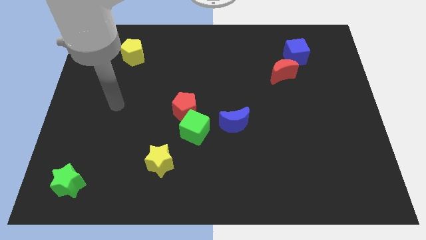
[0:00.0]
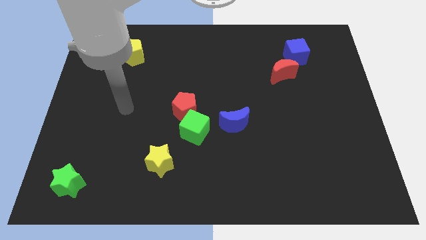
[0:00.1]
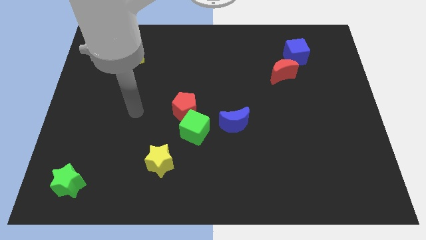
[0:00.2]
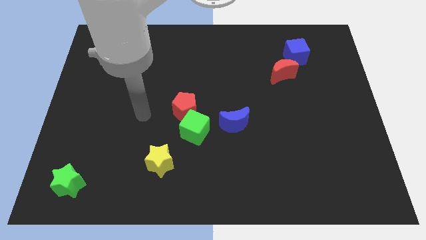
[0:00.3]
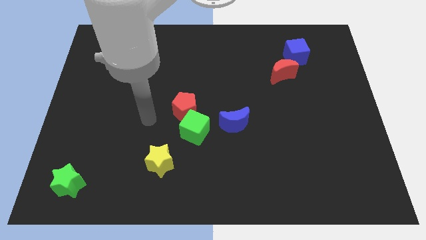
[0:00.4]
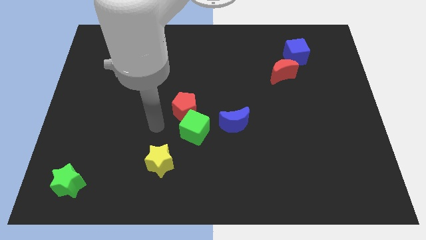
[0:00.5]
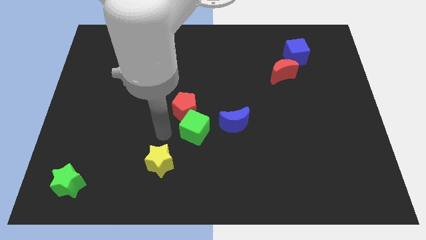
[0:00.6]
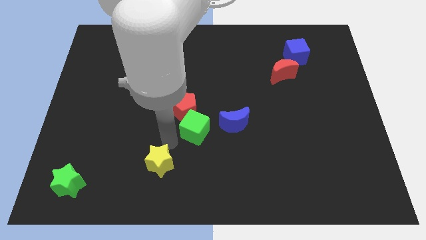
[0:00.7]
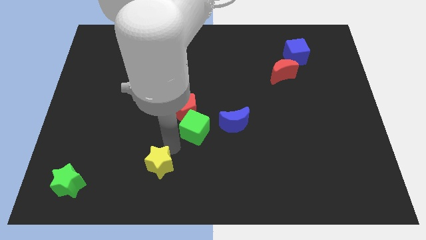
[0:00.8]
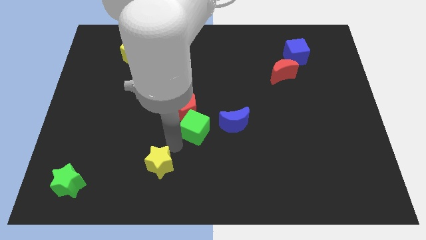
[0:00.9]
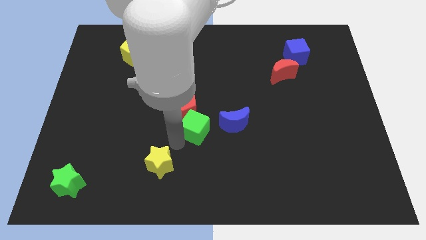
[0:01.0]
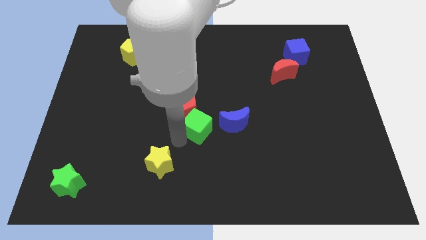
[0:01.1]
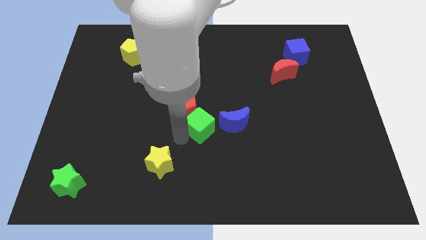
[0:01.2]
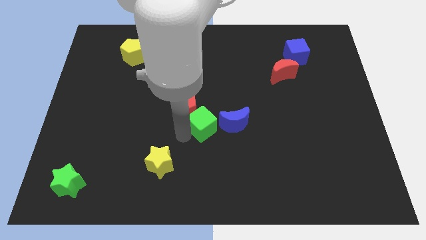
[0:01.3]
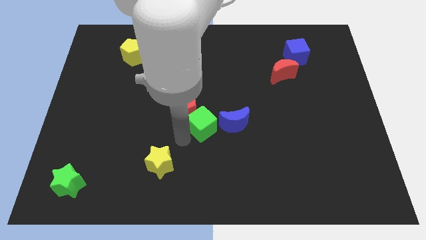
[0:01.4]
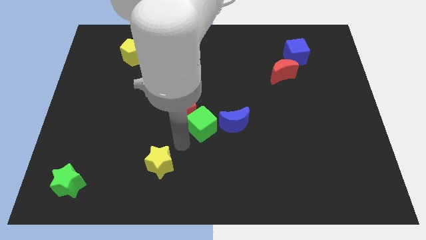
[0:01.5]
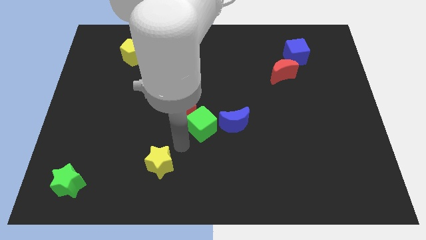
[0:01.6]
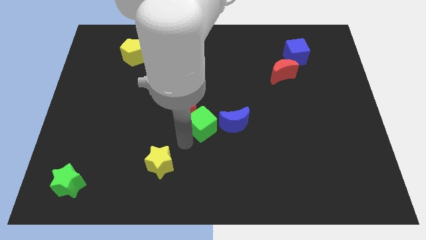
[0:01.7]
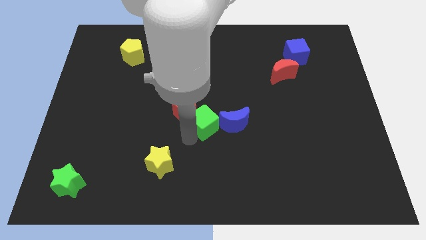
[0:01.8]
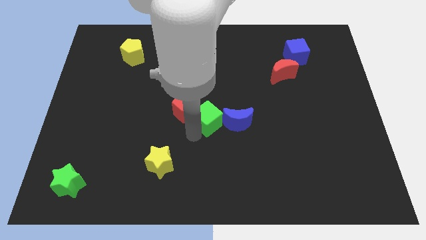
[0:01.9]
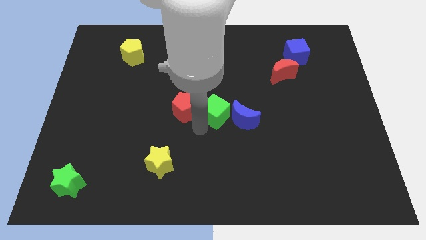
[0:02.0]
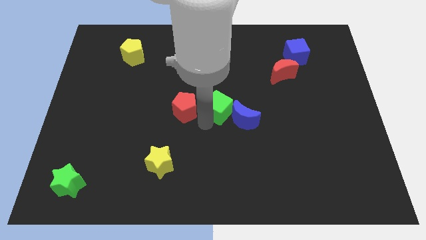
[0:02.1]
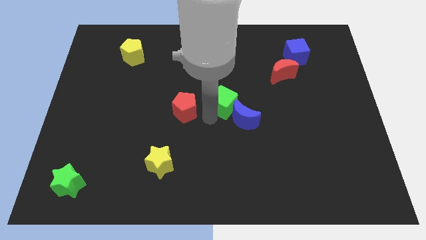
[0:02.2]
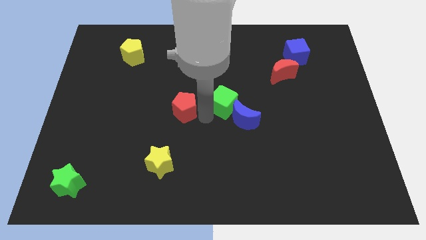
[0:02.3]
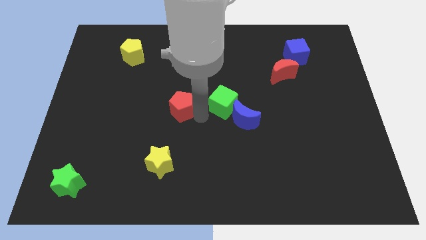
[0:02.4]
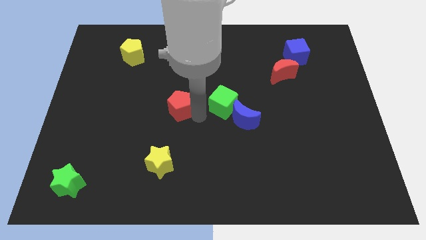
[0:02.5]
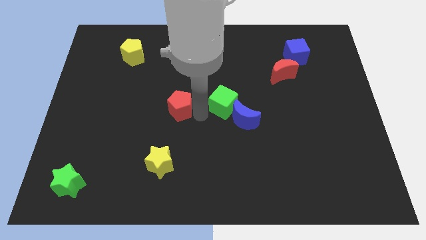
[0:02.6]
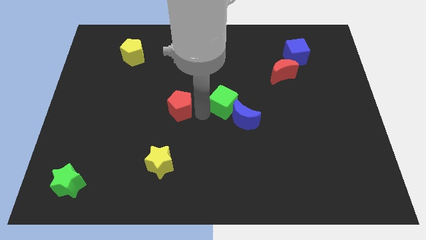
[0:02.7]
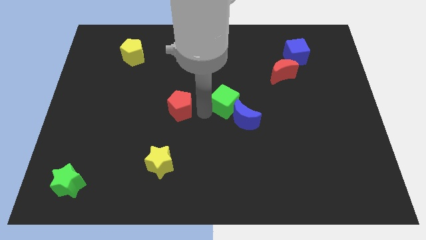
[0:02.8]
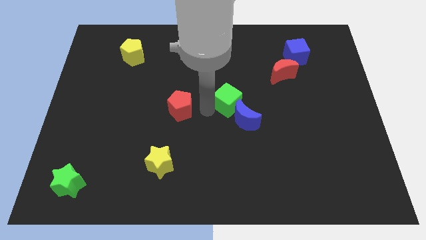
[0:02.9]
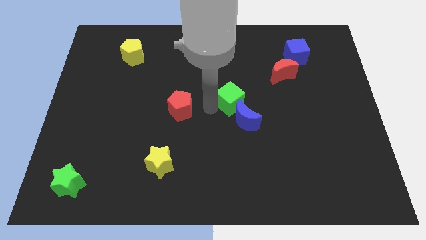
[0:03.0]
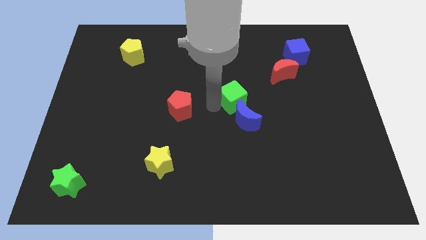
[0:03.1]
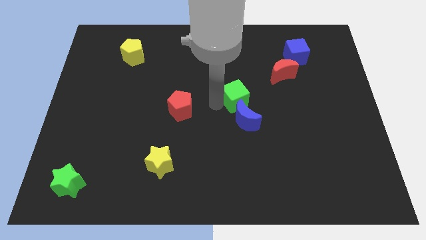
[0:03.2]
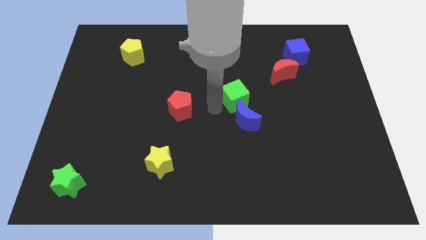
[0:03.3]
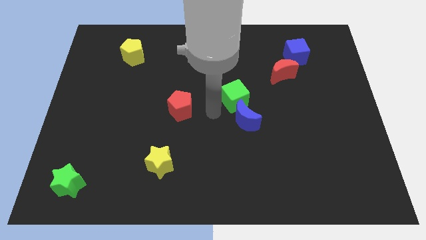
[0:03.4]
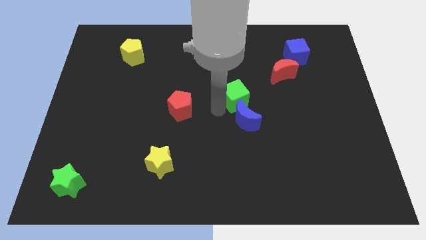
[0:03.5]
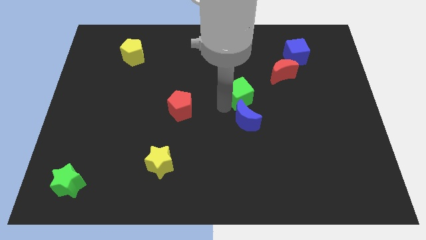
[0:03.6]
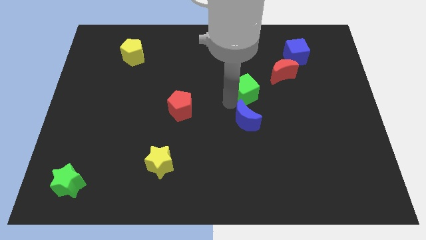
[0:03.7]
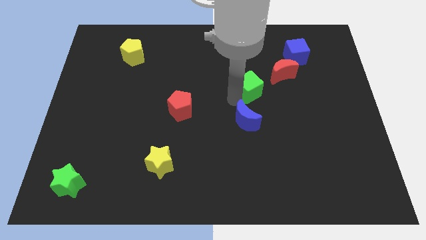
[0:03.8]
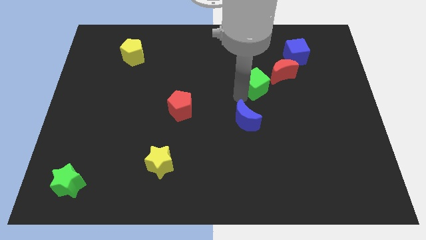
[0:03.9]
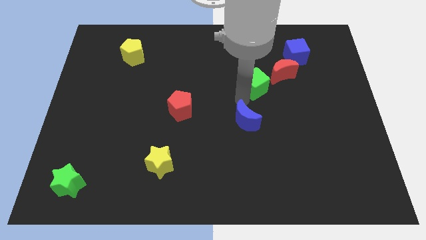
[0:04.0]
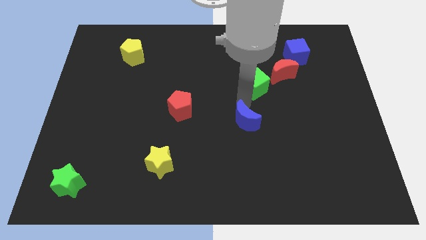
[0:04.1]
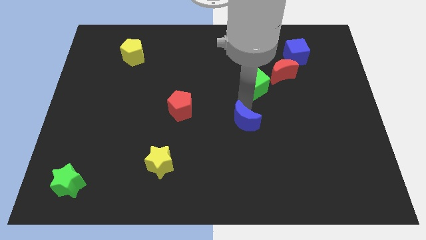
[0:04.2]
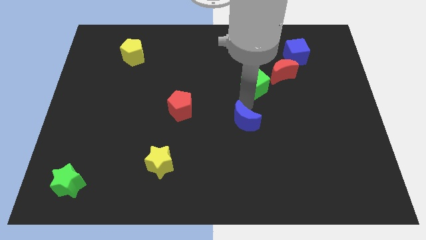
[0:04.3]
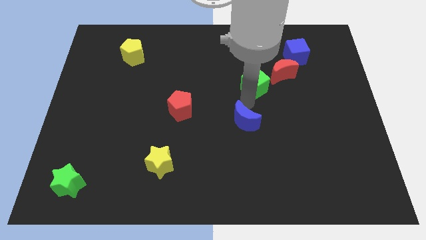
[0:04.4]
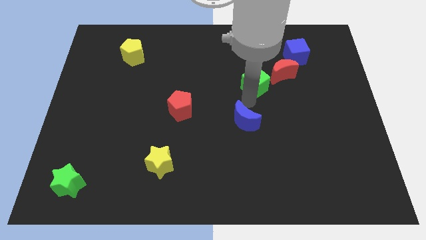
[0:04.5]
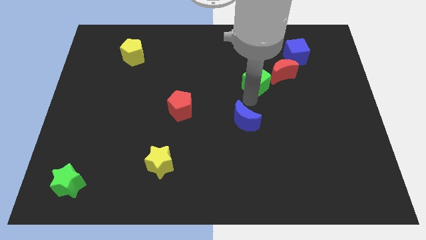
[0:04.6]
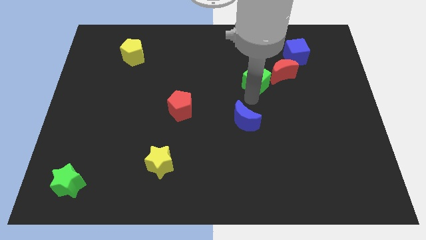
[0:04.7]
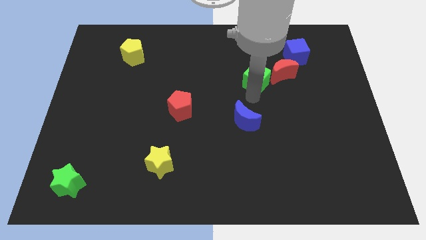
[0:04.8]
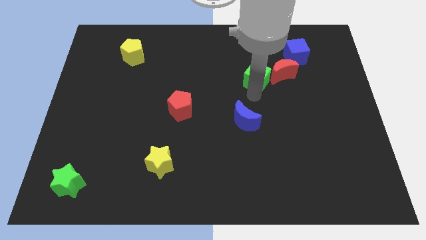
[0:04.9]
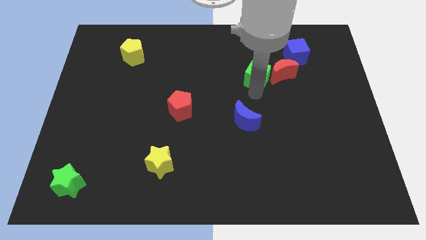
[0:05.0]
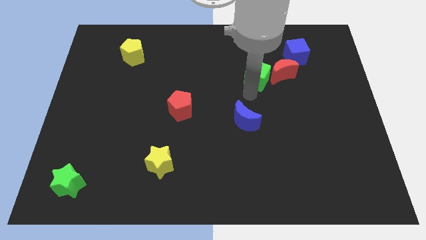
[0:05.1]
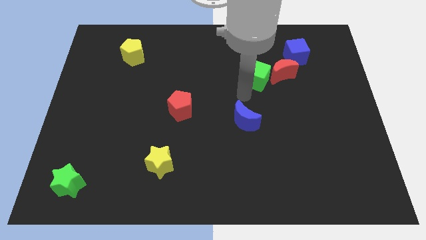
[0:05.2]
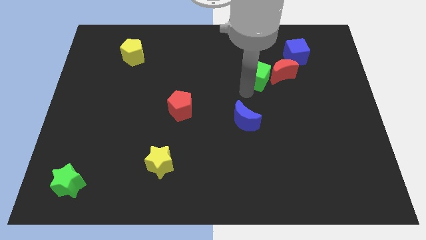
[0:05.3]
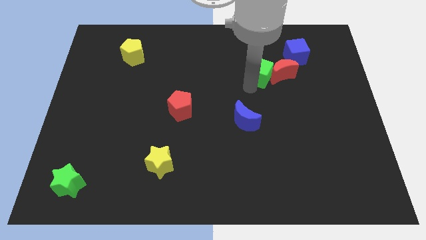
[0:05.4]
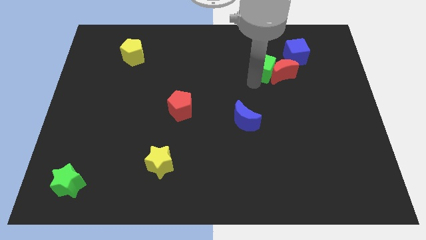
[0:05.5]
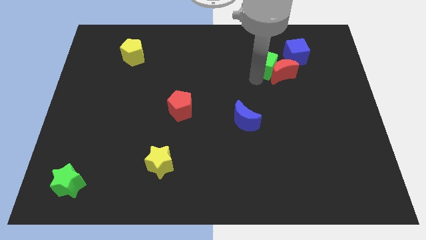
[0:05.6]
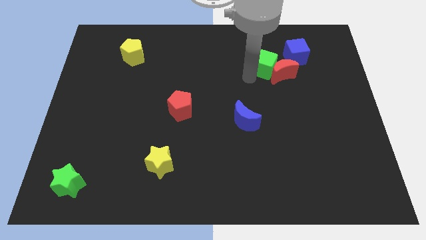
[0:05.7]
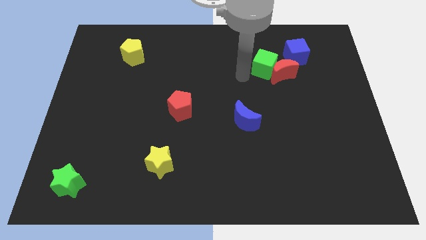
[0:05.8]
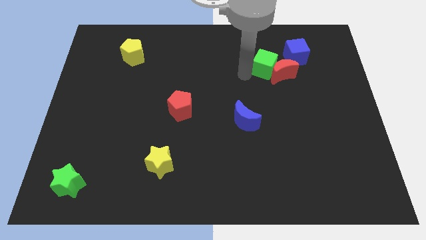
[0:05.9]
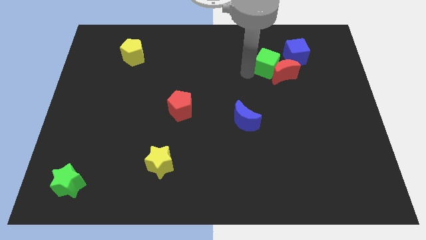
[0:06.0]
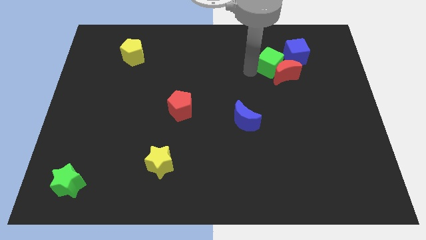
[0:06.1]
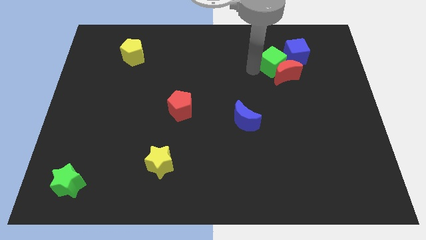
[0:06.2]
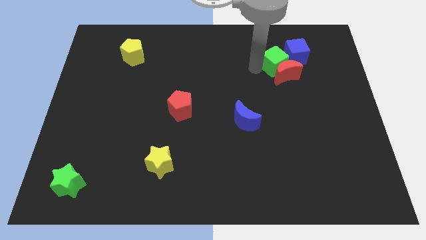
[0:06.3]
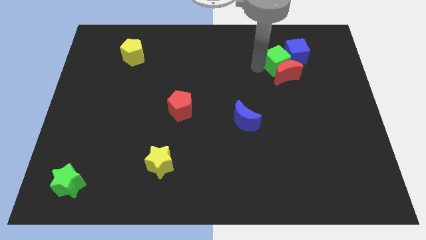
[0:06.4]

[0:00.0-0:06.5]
slide the green cube towards the blue cube
